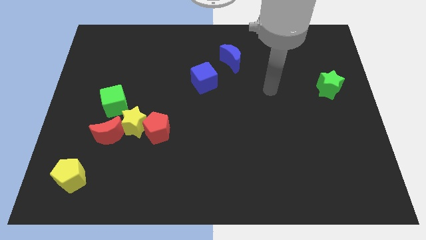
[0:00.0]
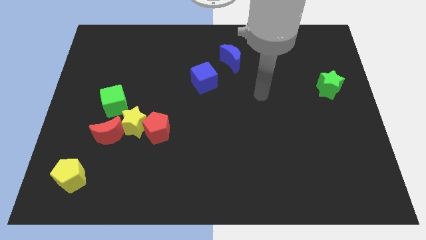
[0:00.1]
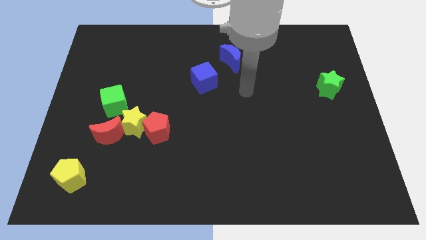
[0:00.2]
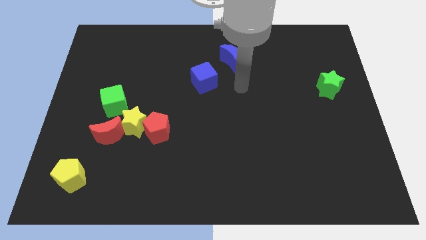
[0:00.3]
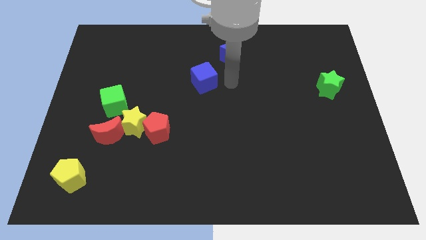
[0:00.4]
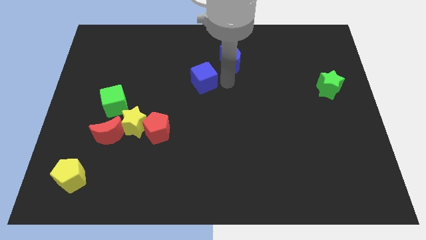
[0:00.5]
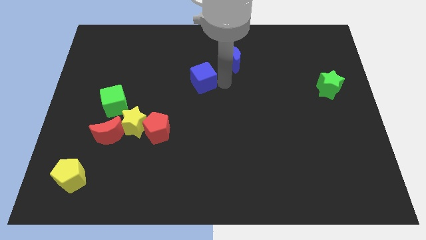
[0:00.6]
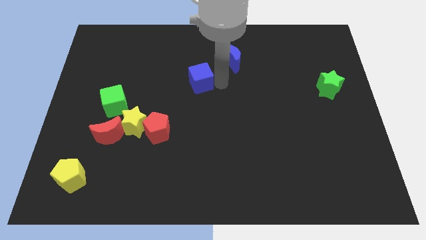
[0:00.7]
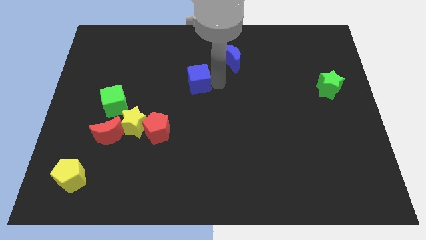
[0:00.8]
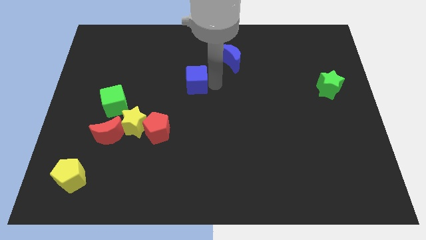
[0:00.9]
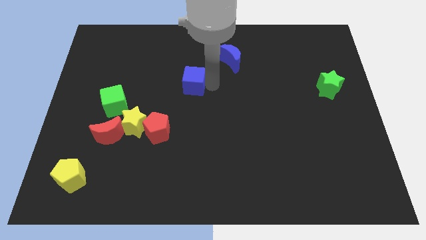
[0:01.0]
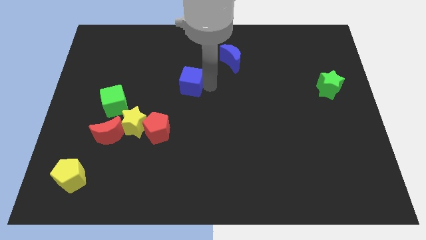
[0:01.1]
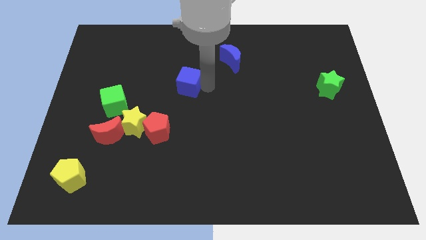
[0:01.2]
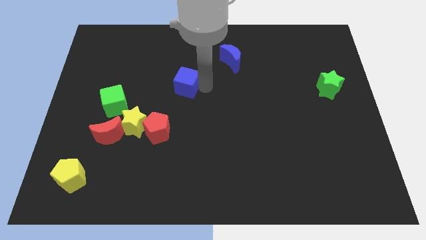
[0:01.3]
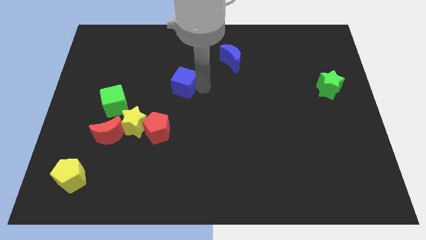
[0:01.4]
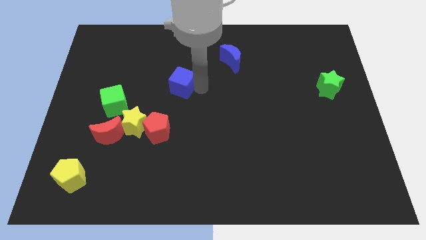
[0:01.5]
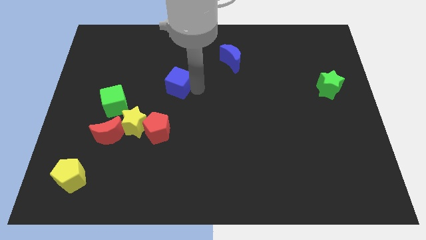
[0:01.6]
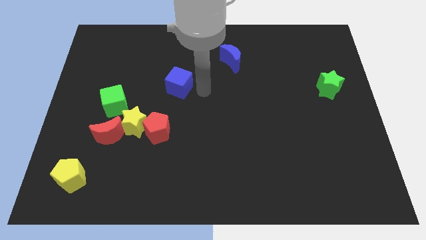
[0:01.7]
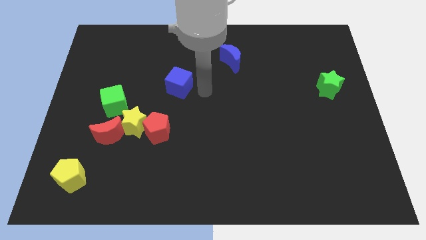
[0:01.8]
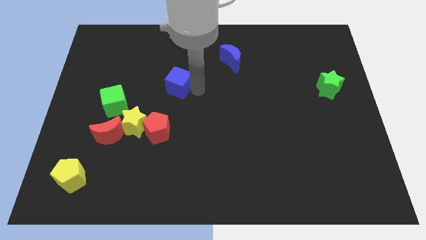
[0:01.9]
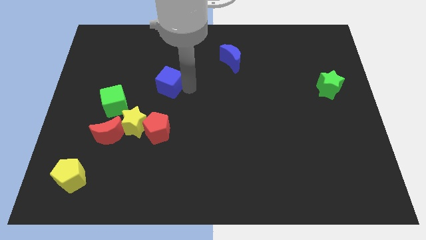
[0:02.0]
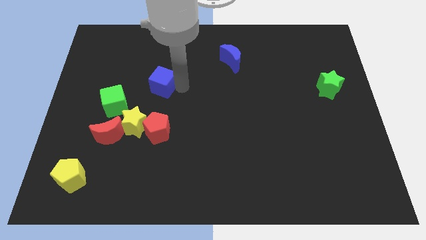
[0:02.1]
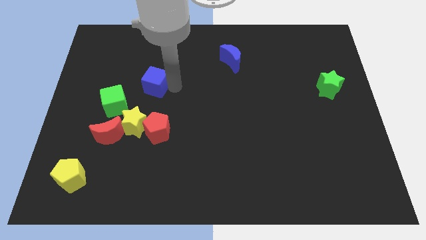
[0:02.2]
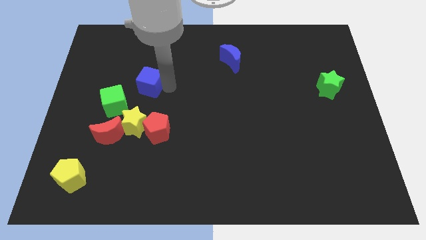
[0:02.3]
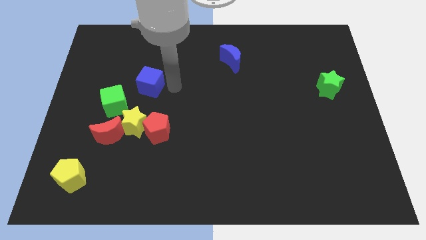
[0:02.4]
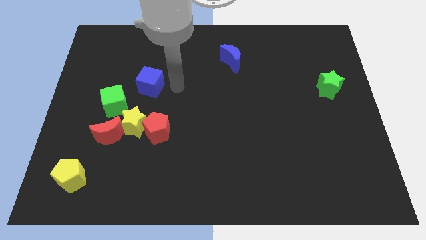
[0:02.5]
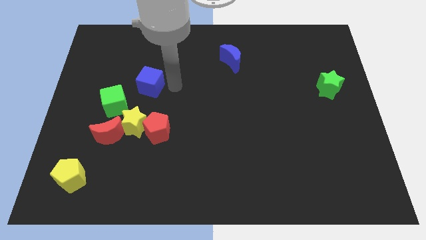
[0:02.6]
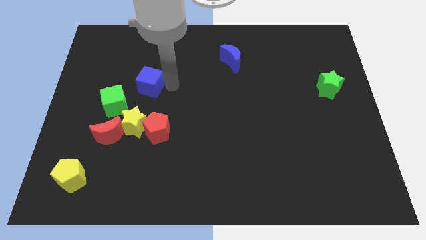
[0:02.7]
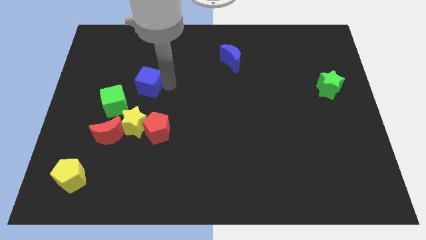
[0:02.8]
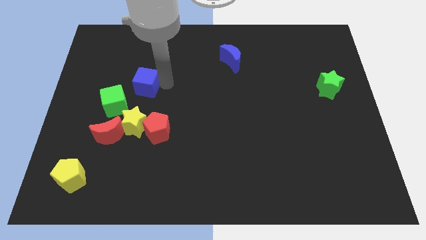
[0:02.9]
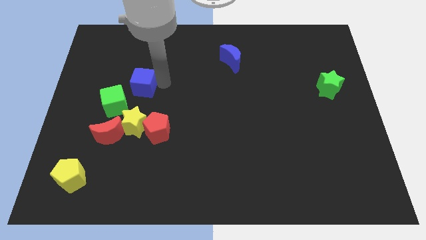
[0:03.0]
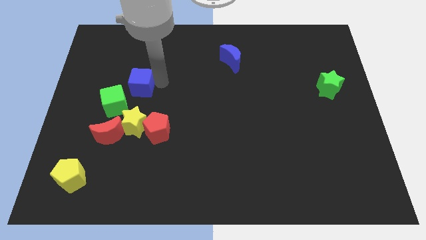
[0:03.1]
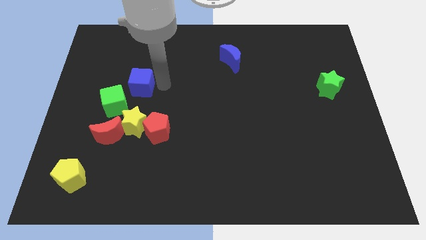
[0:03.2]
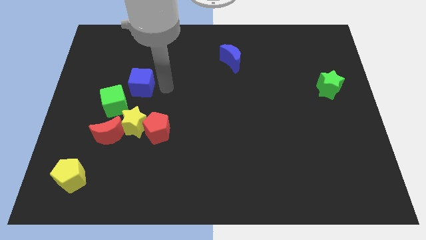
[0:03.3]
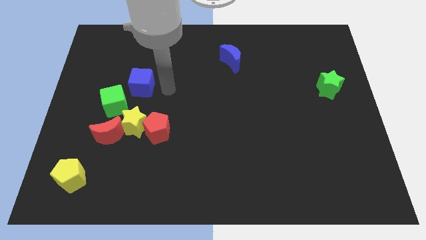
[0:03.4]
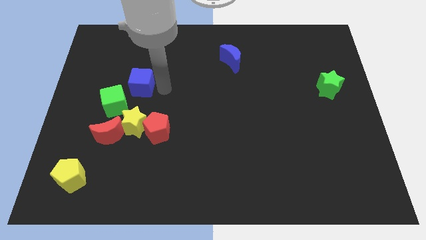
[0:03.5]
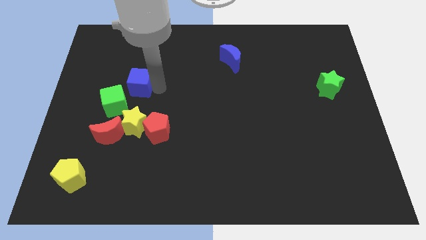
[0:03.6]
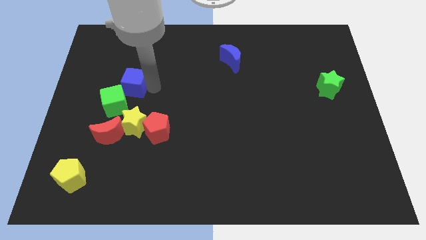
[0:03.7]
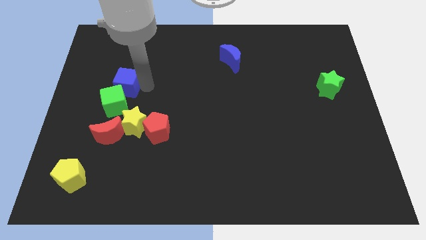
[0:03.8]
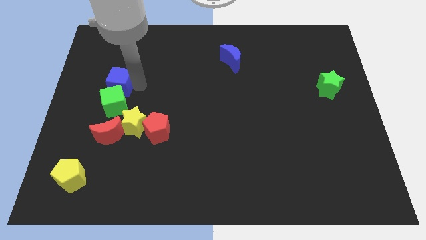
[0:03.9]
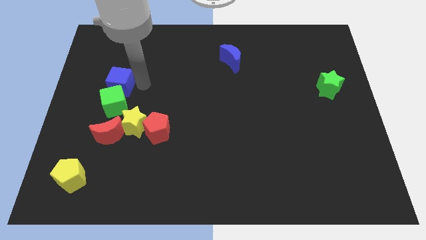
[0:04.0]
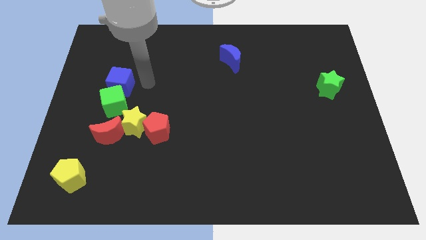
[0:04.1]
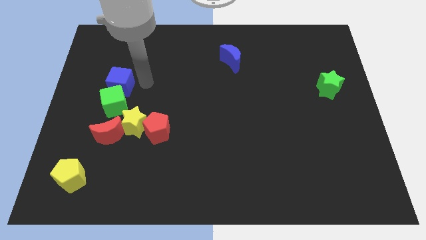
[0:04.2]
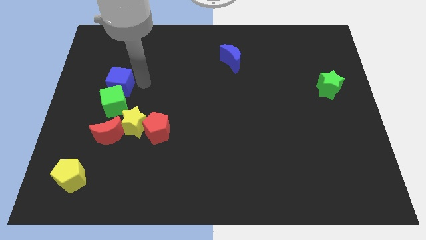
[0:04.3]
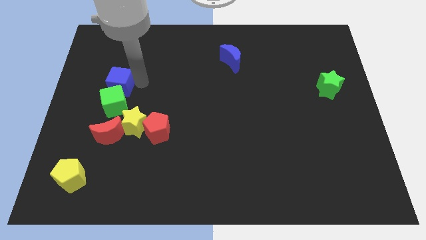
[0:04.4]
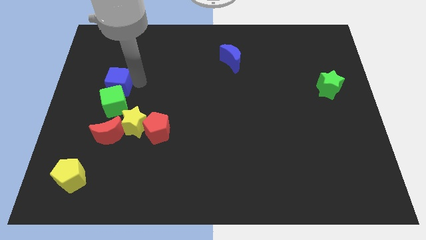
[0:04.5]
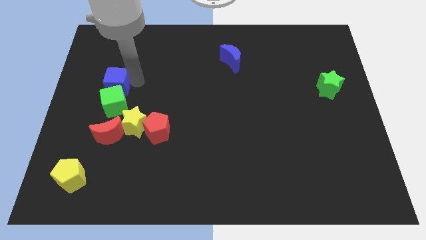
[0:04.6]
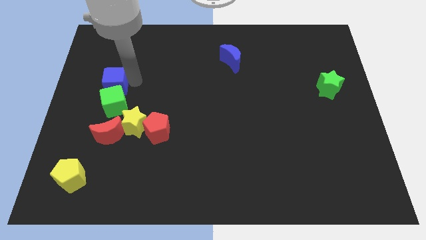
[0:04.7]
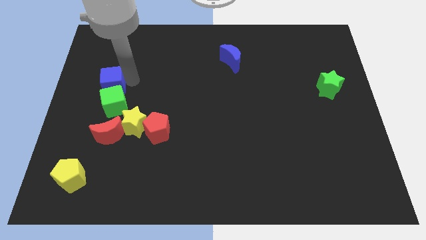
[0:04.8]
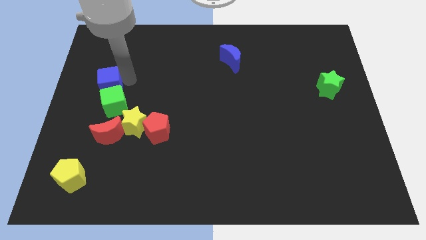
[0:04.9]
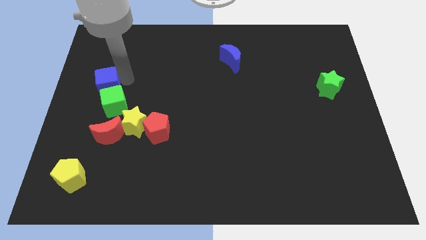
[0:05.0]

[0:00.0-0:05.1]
move the blue cube to the center left

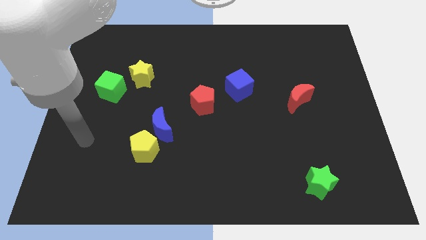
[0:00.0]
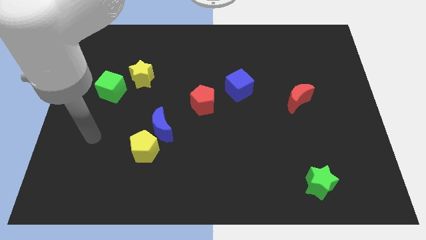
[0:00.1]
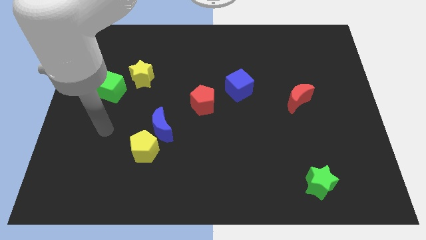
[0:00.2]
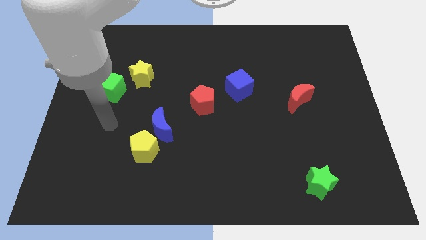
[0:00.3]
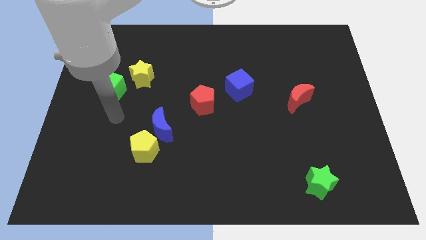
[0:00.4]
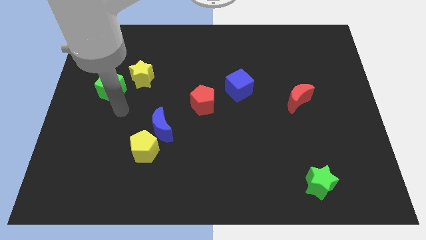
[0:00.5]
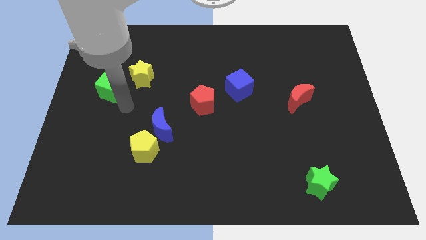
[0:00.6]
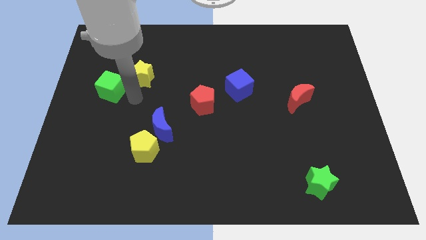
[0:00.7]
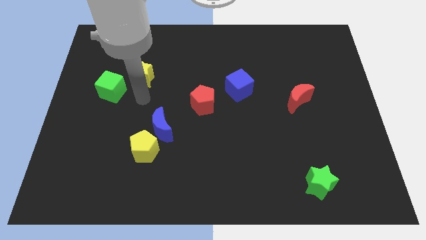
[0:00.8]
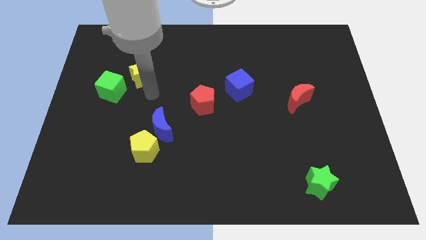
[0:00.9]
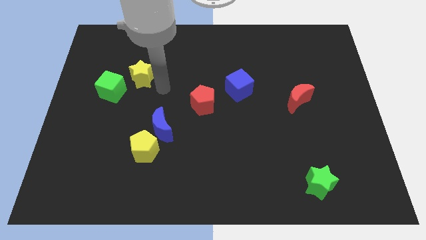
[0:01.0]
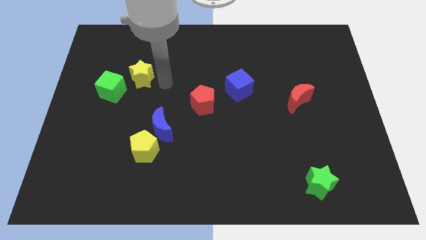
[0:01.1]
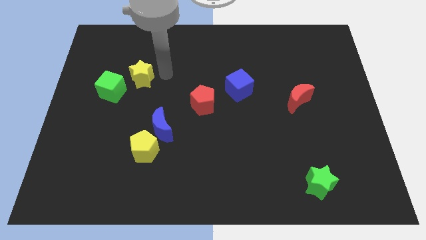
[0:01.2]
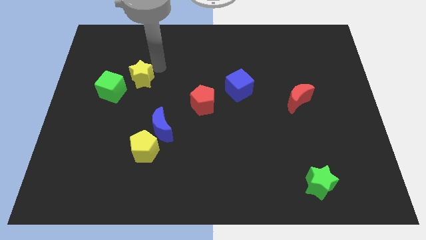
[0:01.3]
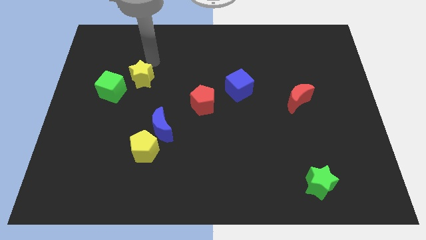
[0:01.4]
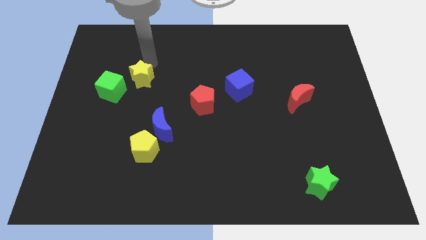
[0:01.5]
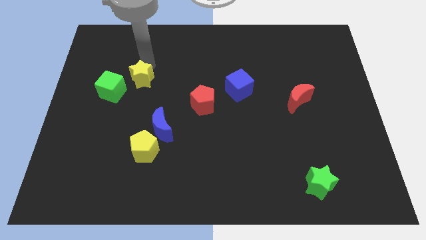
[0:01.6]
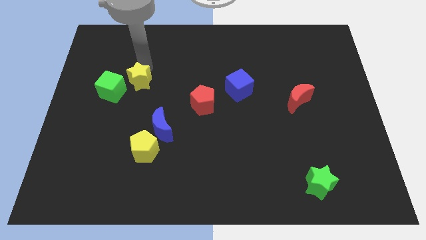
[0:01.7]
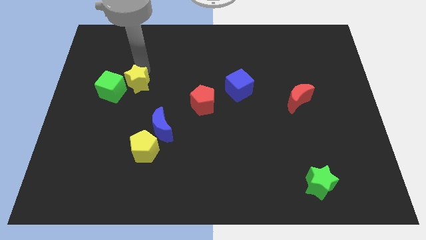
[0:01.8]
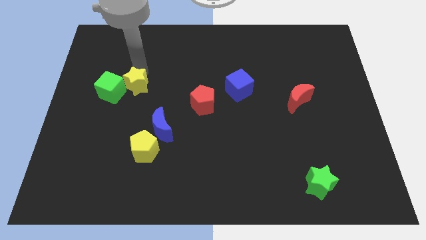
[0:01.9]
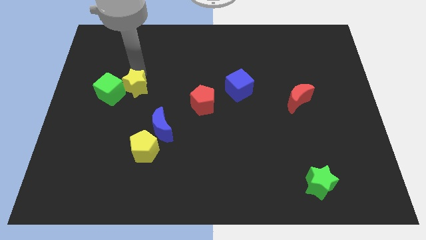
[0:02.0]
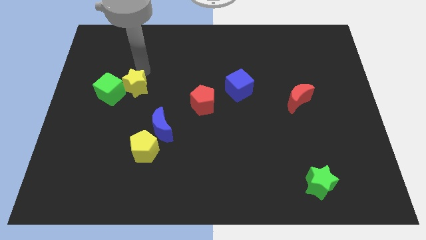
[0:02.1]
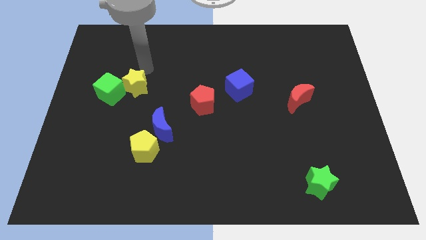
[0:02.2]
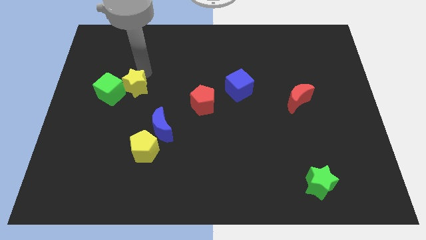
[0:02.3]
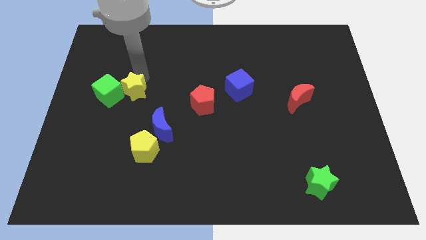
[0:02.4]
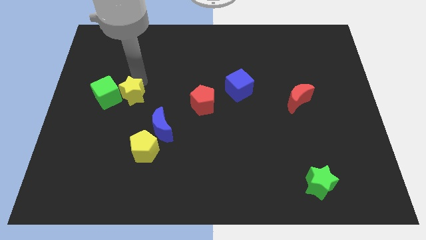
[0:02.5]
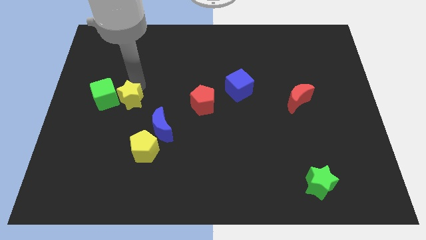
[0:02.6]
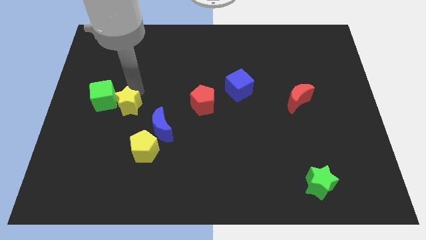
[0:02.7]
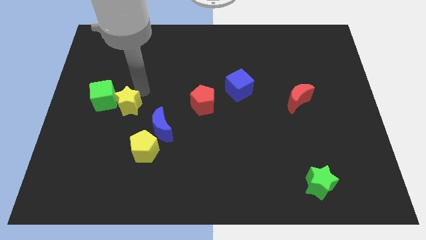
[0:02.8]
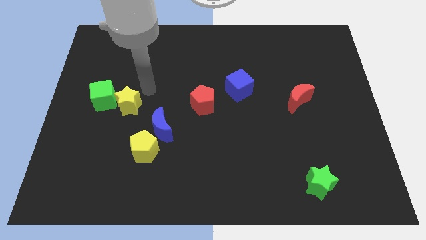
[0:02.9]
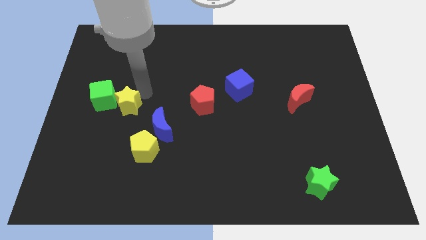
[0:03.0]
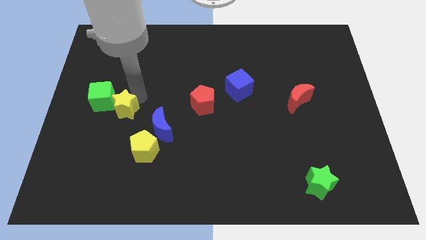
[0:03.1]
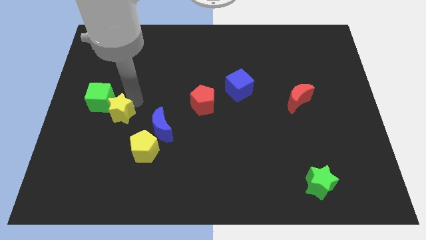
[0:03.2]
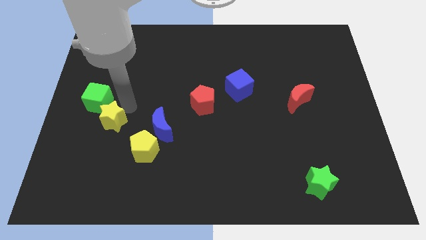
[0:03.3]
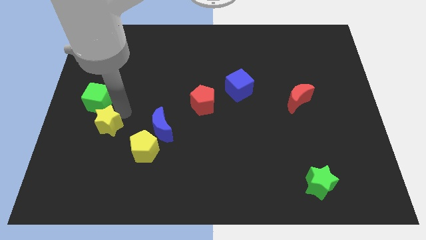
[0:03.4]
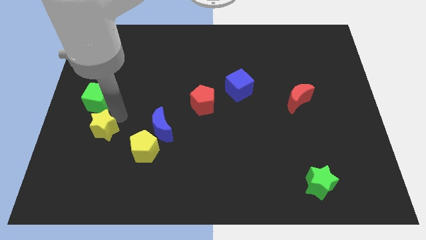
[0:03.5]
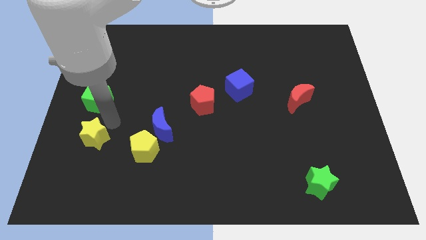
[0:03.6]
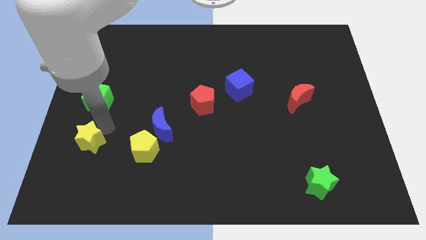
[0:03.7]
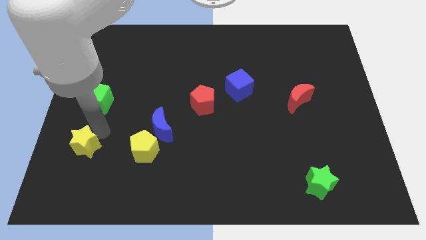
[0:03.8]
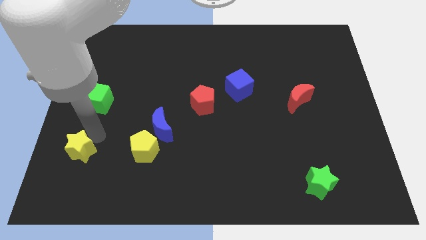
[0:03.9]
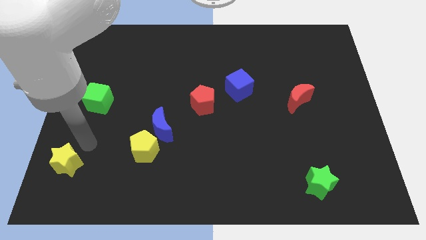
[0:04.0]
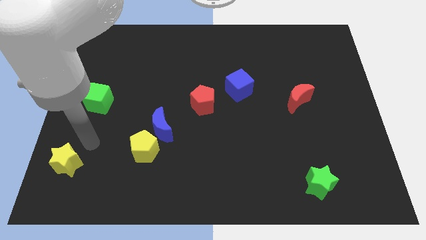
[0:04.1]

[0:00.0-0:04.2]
put the yellow star to the bottom left
